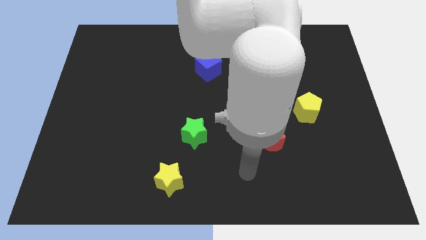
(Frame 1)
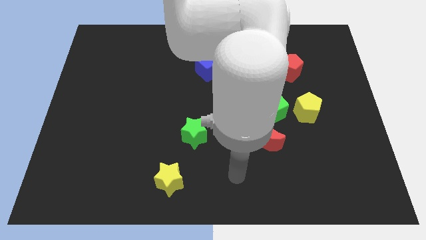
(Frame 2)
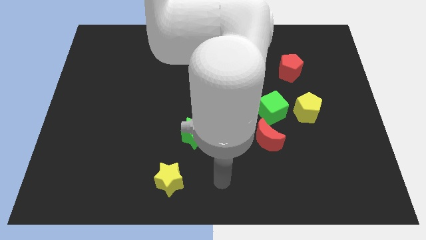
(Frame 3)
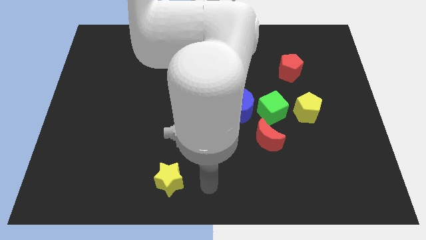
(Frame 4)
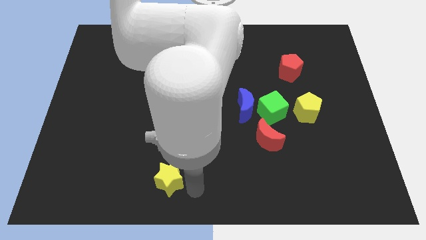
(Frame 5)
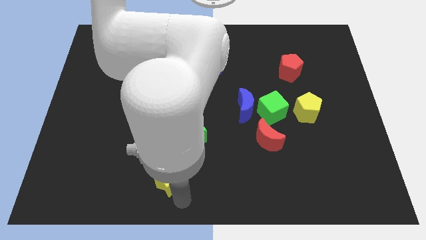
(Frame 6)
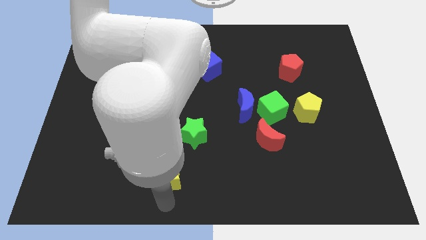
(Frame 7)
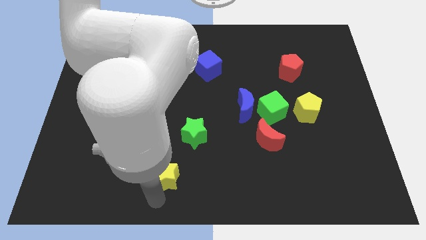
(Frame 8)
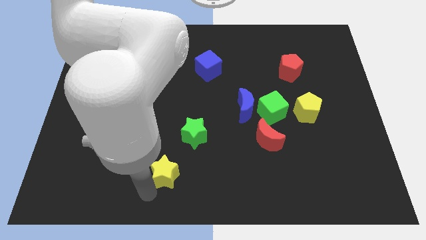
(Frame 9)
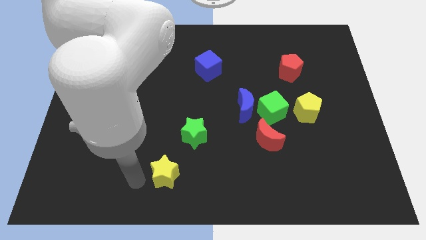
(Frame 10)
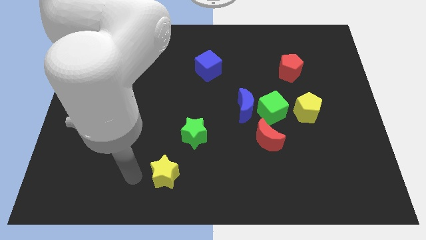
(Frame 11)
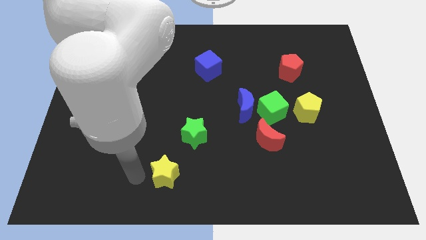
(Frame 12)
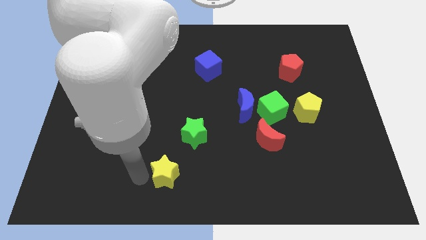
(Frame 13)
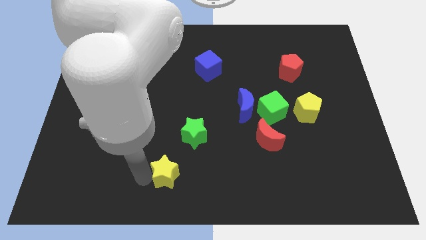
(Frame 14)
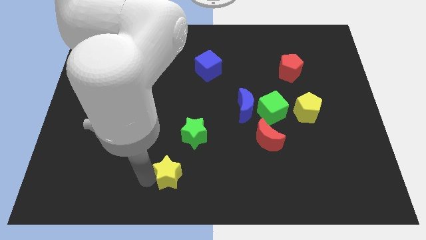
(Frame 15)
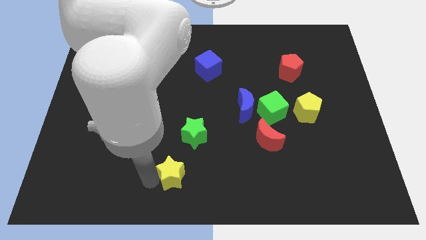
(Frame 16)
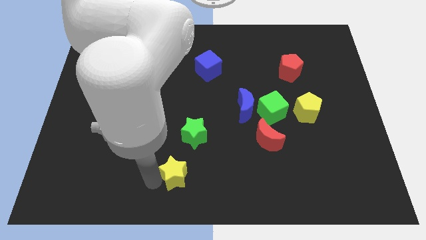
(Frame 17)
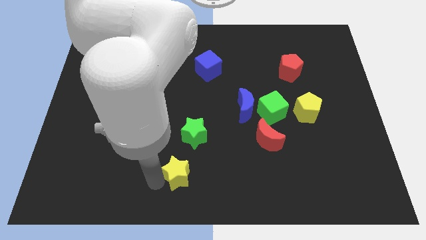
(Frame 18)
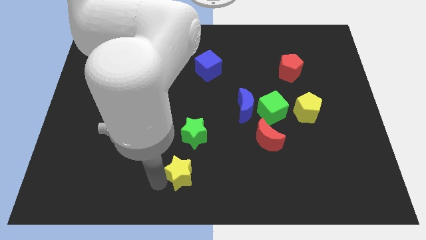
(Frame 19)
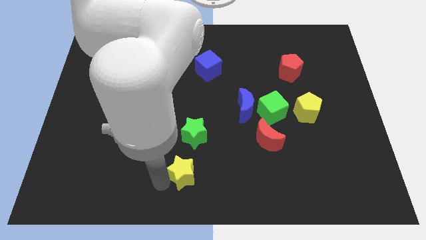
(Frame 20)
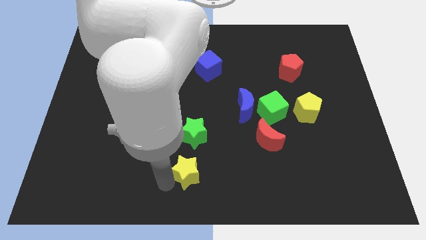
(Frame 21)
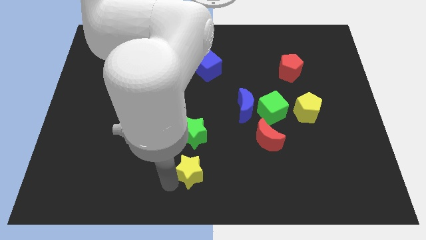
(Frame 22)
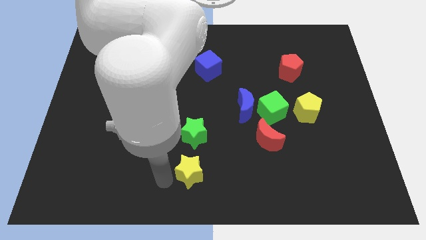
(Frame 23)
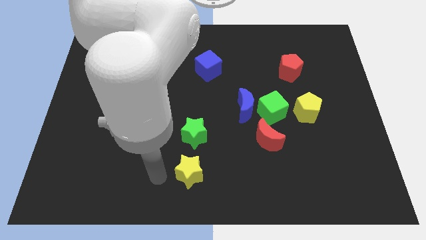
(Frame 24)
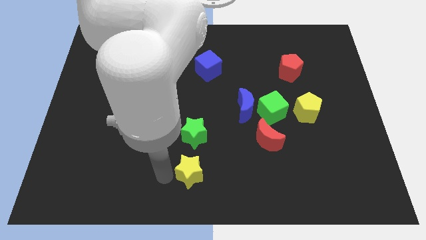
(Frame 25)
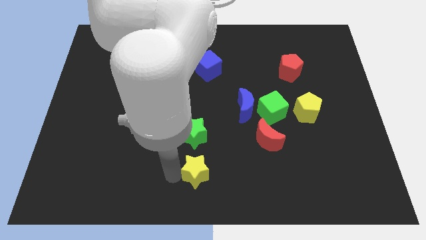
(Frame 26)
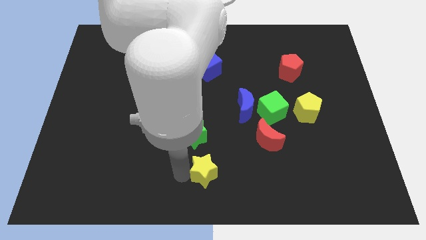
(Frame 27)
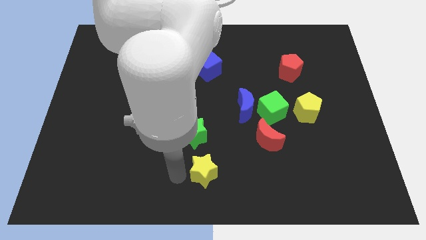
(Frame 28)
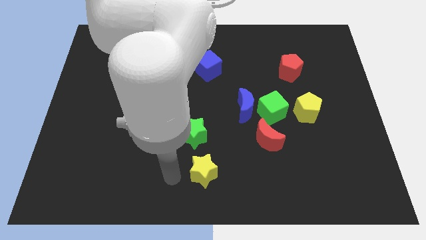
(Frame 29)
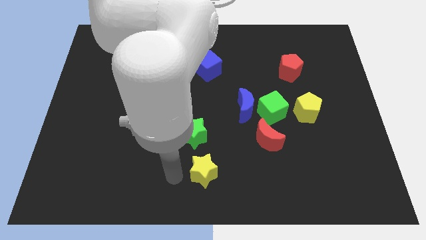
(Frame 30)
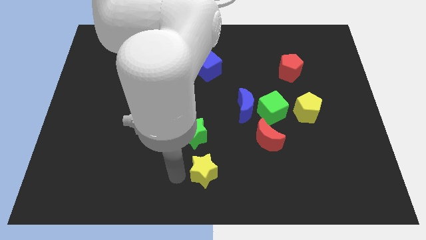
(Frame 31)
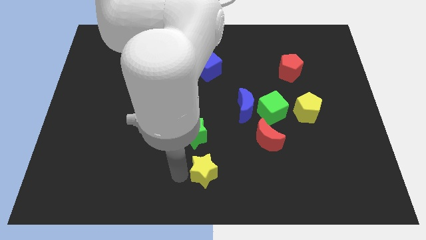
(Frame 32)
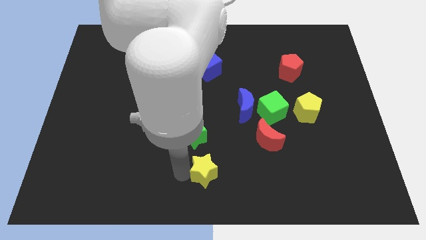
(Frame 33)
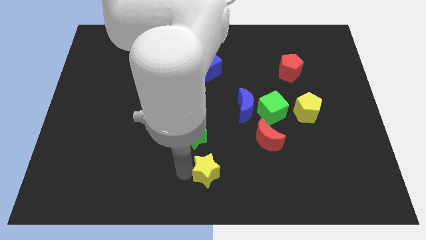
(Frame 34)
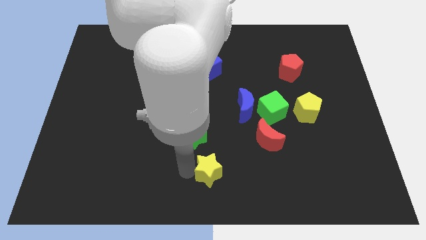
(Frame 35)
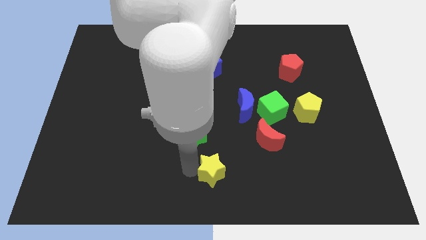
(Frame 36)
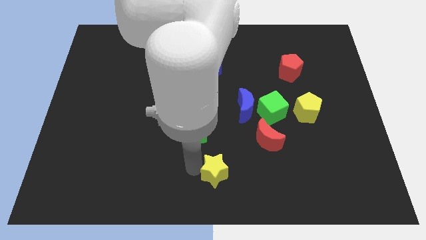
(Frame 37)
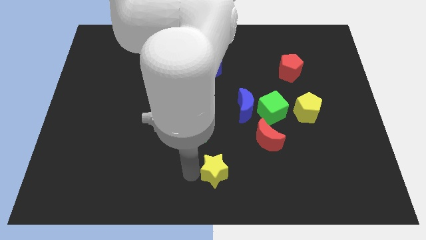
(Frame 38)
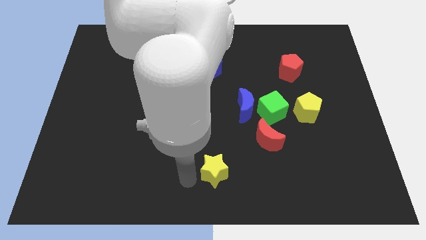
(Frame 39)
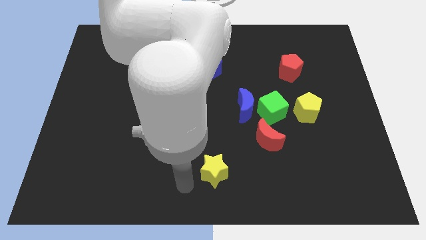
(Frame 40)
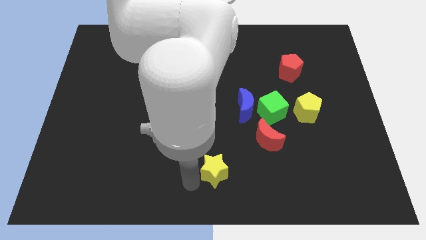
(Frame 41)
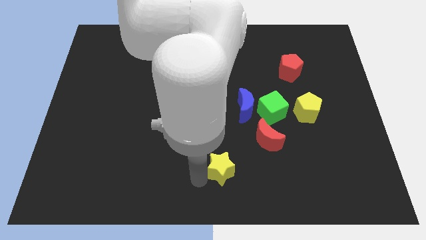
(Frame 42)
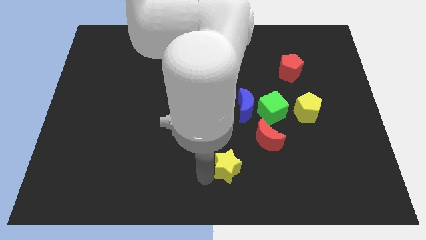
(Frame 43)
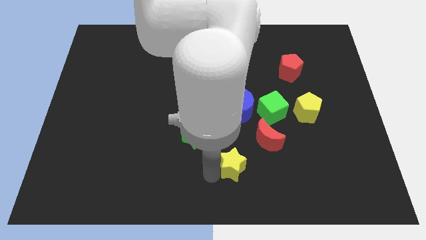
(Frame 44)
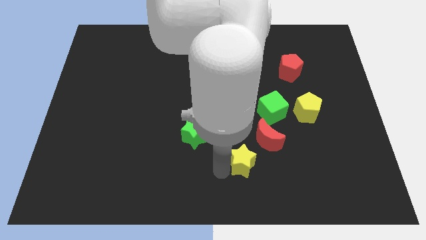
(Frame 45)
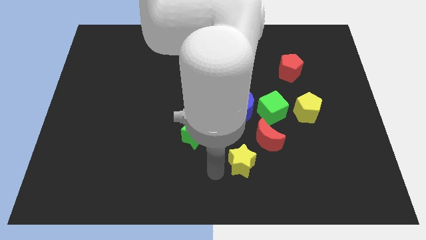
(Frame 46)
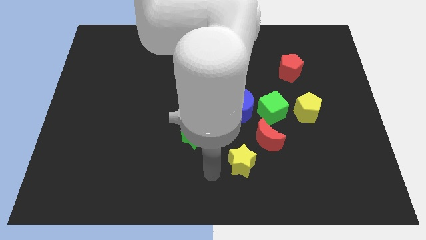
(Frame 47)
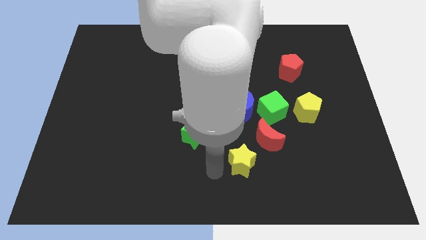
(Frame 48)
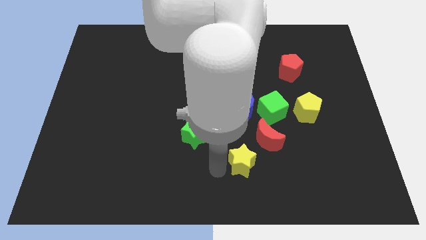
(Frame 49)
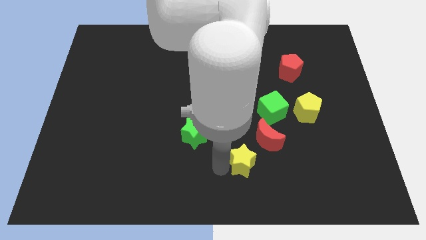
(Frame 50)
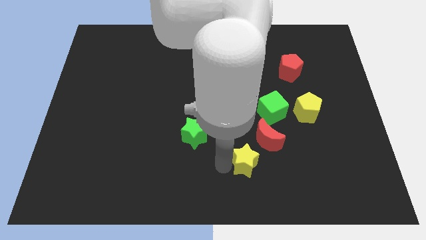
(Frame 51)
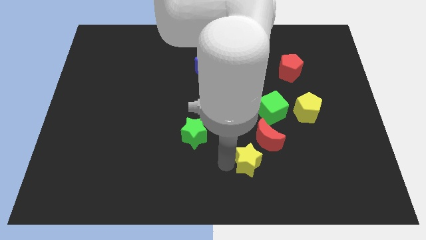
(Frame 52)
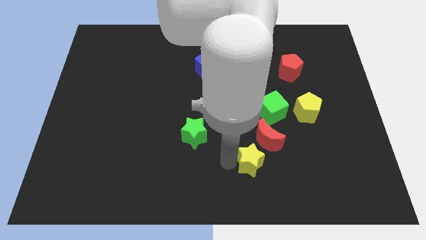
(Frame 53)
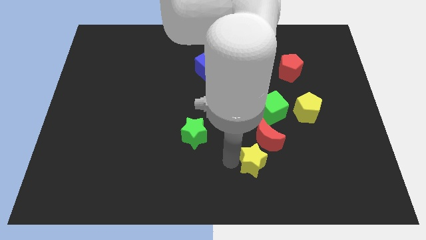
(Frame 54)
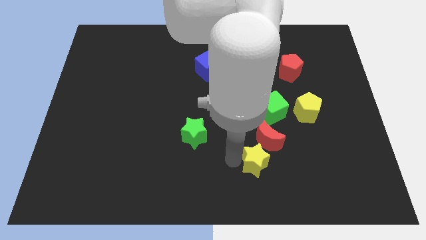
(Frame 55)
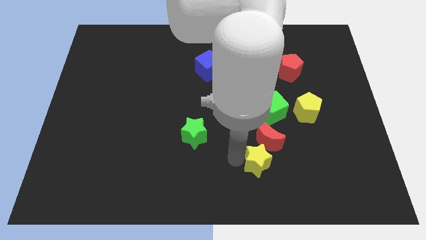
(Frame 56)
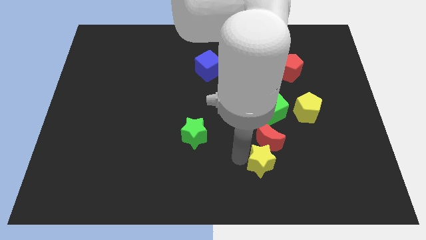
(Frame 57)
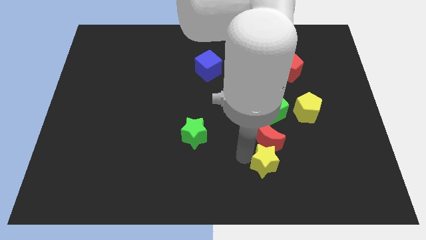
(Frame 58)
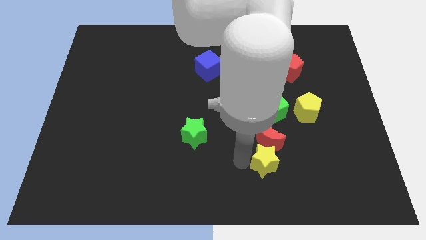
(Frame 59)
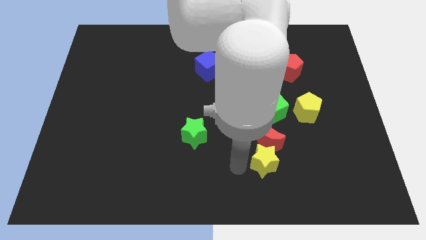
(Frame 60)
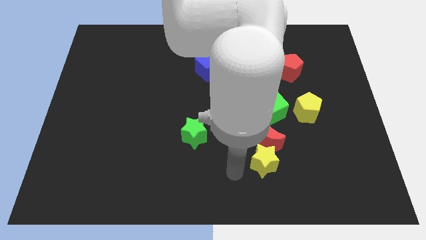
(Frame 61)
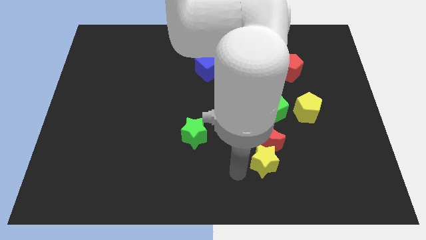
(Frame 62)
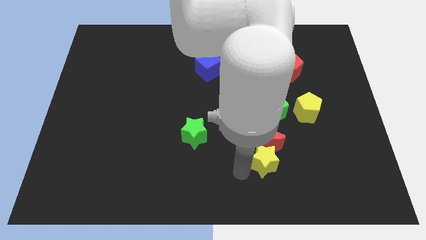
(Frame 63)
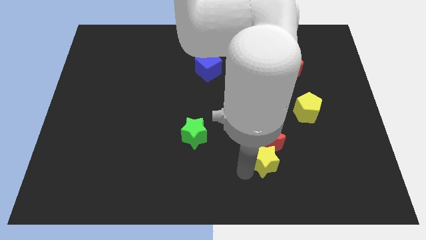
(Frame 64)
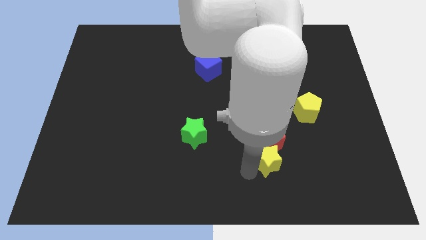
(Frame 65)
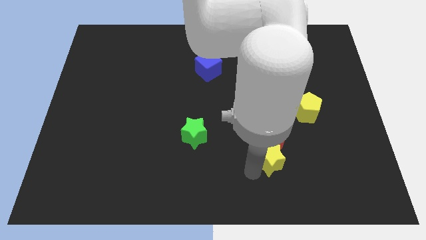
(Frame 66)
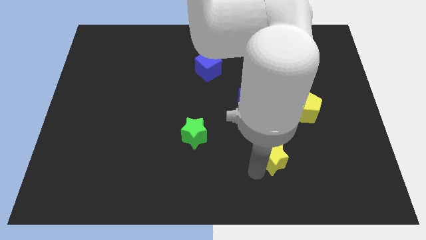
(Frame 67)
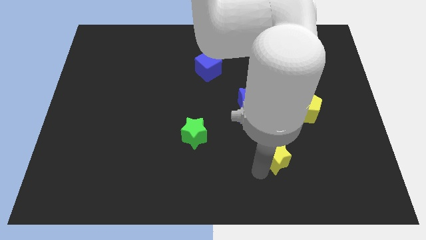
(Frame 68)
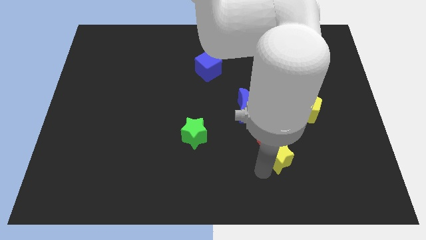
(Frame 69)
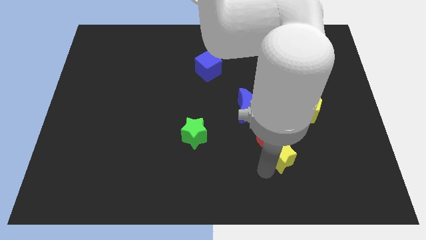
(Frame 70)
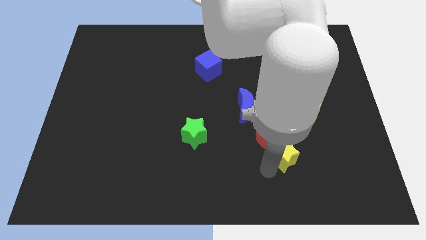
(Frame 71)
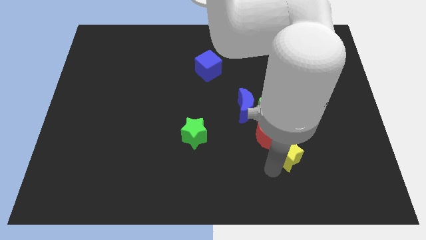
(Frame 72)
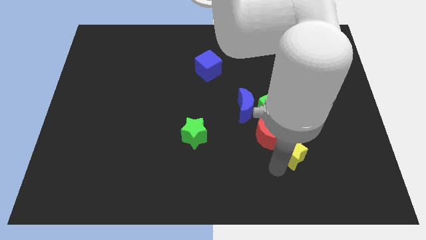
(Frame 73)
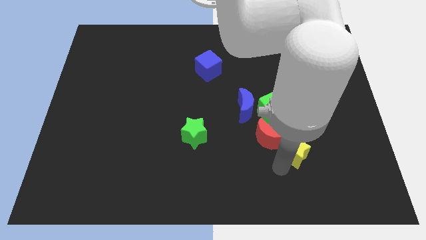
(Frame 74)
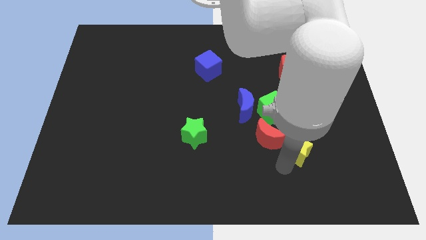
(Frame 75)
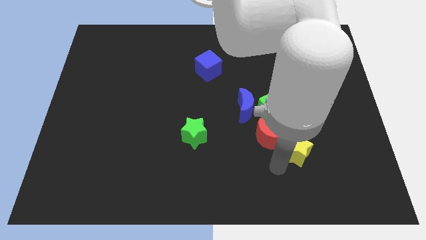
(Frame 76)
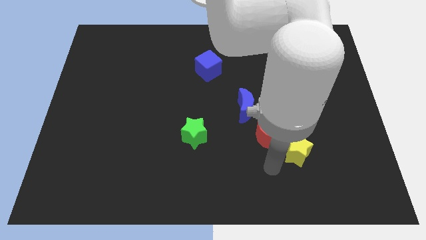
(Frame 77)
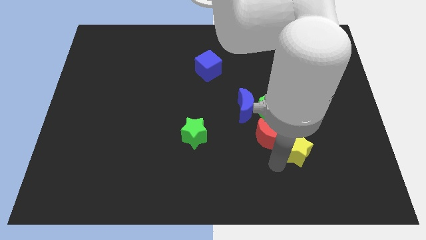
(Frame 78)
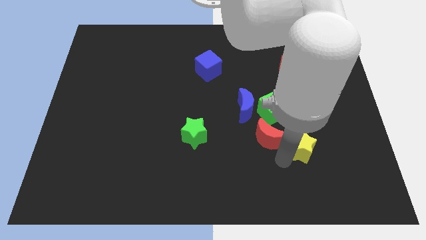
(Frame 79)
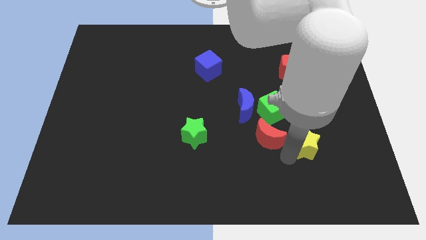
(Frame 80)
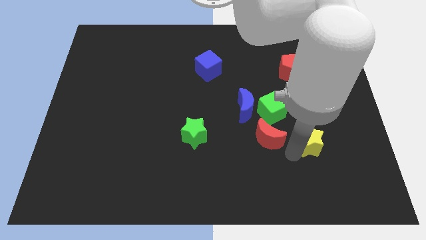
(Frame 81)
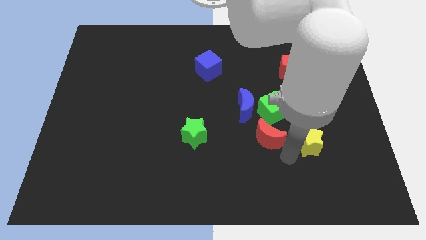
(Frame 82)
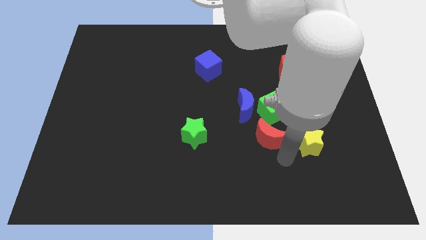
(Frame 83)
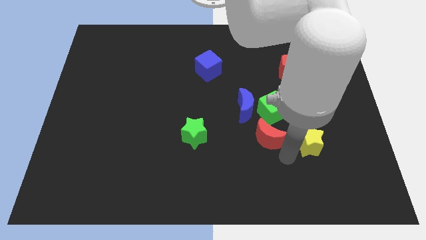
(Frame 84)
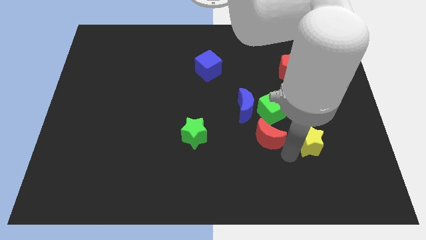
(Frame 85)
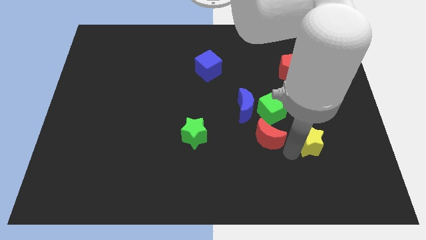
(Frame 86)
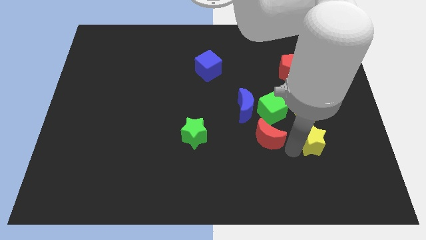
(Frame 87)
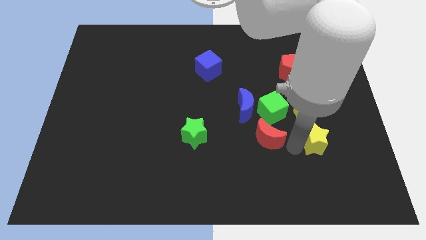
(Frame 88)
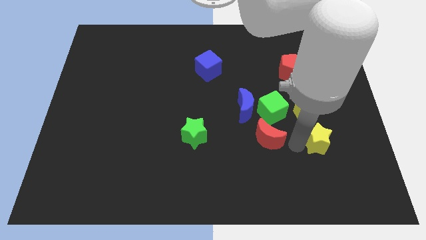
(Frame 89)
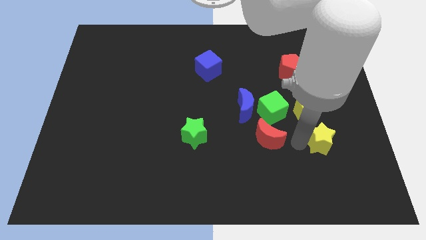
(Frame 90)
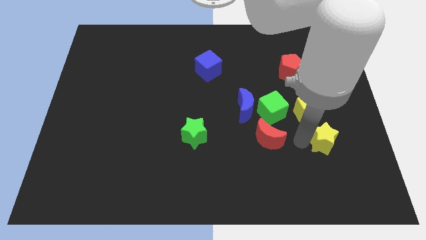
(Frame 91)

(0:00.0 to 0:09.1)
put the yellow star diagonally down and to the right of the yellow pentagon
